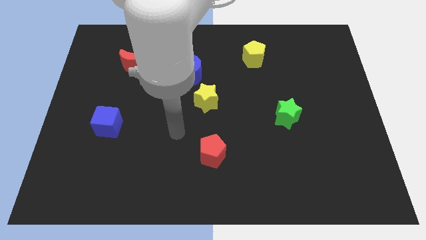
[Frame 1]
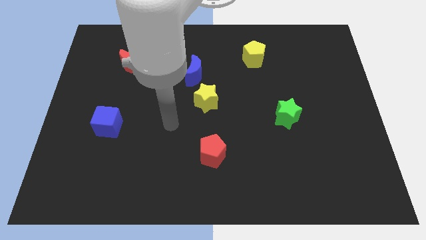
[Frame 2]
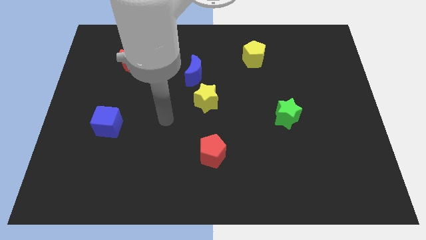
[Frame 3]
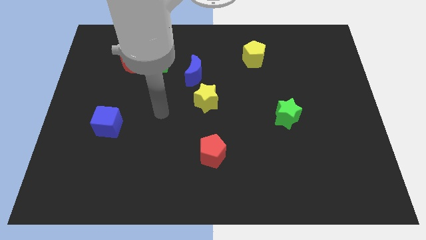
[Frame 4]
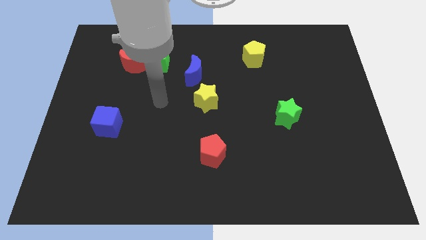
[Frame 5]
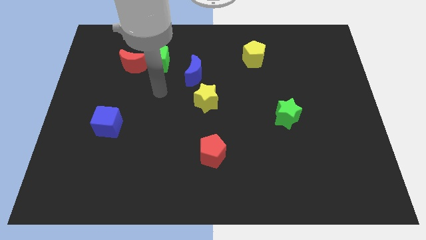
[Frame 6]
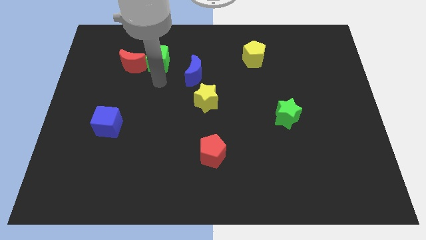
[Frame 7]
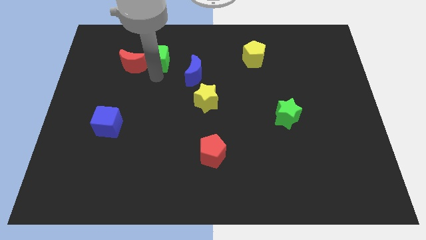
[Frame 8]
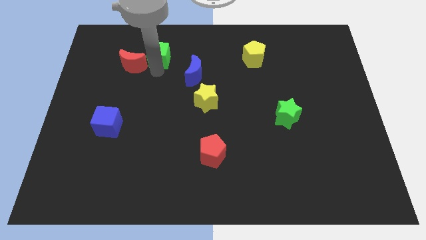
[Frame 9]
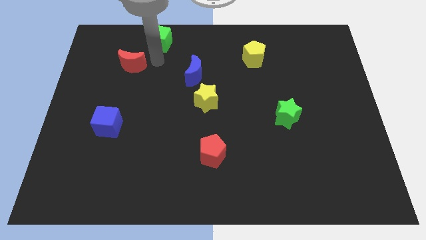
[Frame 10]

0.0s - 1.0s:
separate the red moon from the green cube

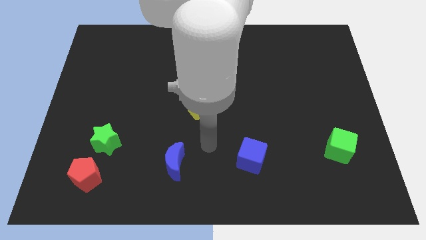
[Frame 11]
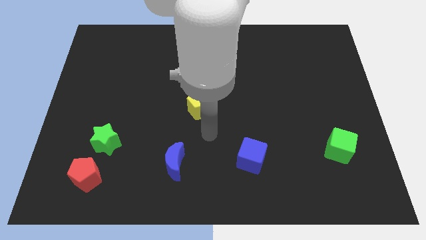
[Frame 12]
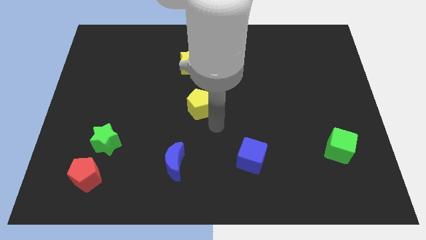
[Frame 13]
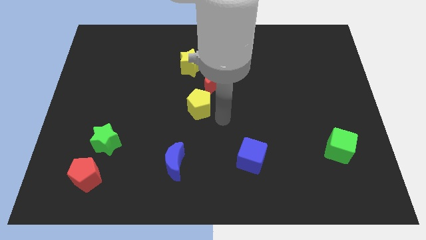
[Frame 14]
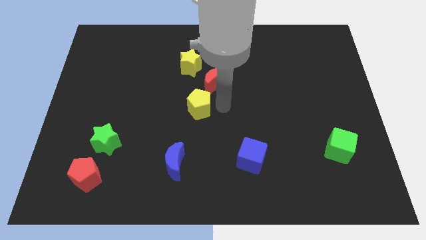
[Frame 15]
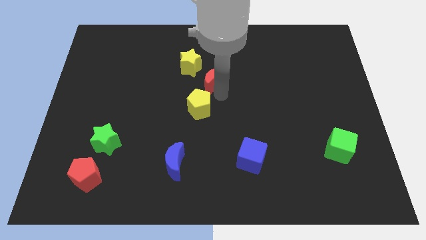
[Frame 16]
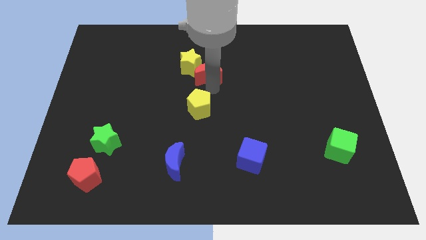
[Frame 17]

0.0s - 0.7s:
separate the yellow pentagon from the red moon

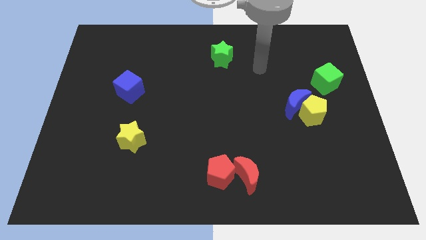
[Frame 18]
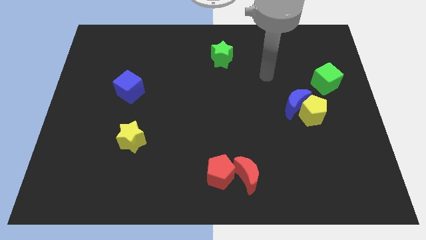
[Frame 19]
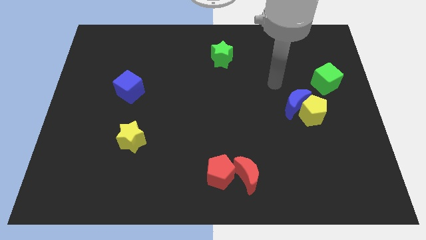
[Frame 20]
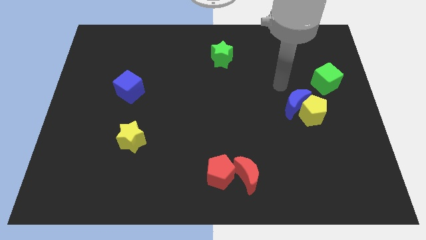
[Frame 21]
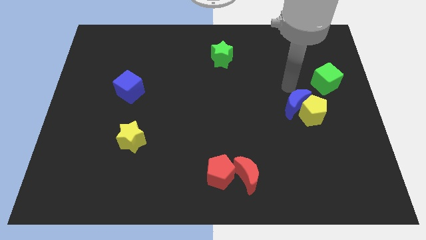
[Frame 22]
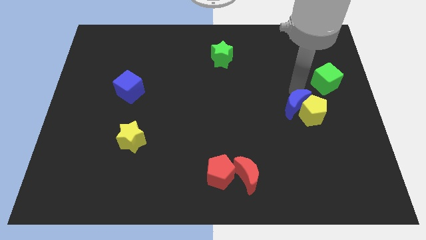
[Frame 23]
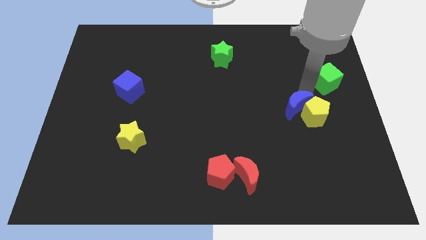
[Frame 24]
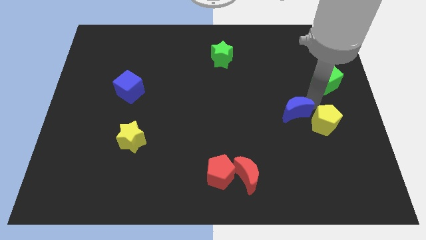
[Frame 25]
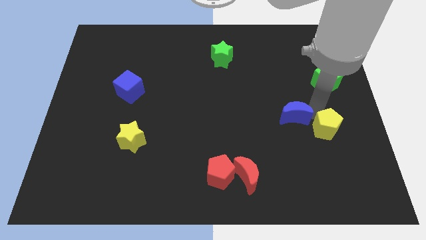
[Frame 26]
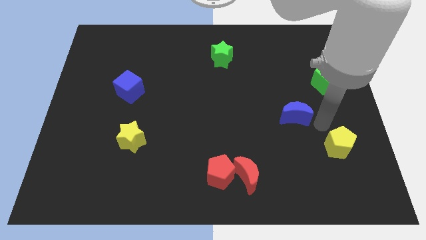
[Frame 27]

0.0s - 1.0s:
move the blue moon away from the yellow pentagon

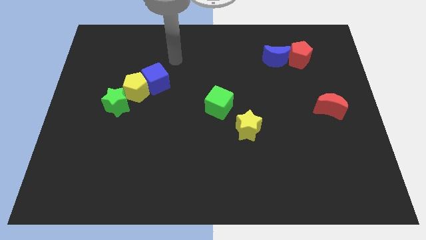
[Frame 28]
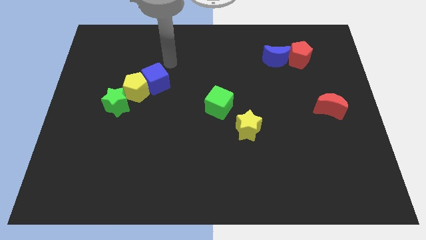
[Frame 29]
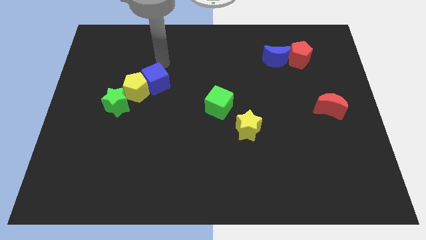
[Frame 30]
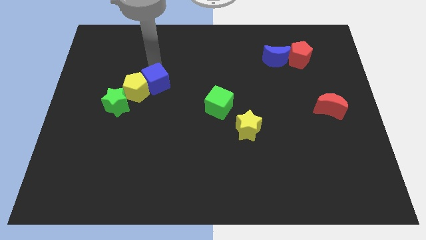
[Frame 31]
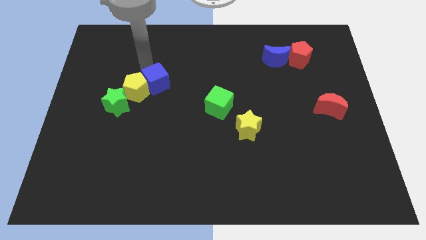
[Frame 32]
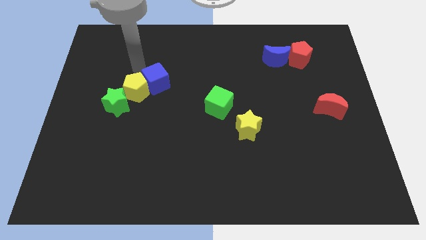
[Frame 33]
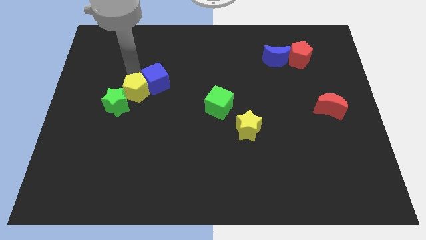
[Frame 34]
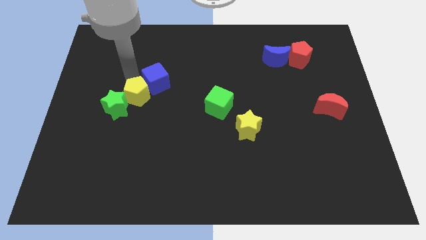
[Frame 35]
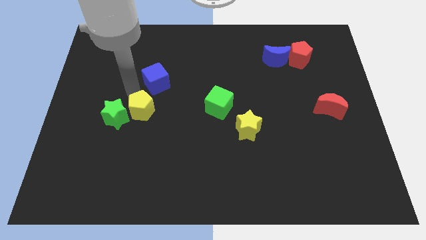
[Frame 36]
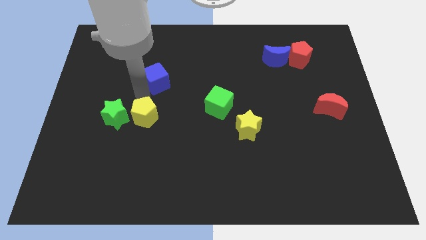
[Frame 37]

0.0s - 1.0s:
separate the blue cube from the yellow pentagon

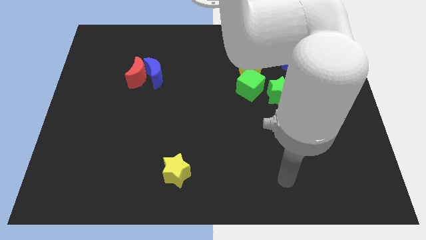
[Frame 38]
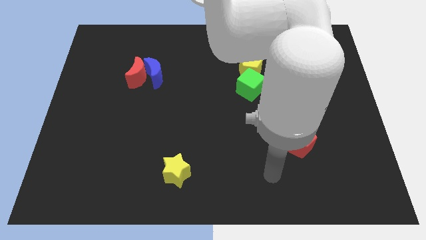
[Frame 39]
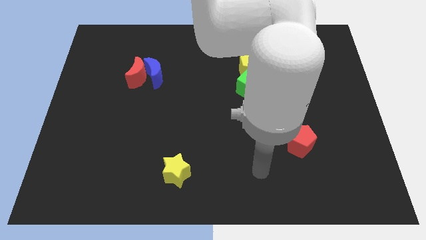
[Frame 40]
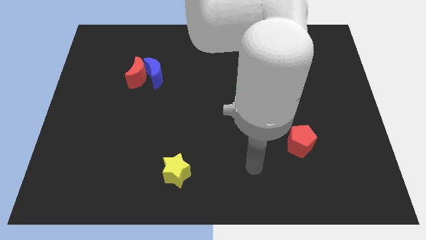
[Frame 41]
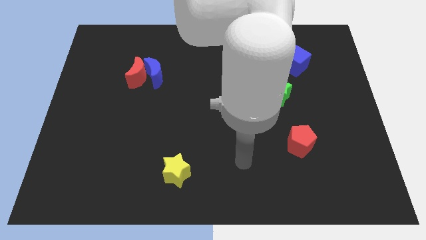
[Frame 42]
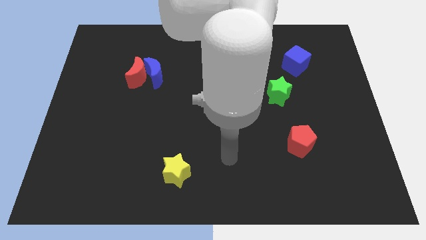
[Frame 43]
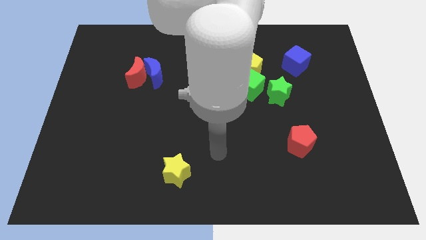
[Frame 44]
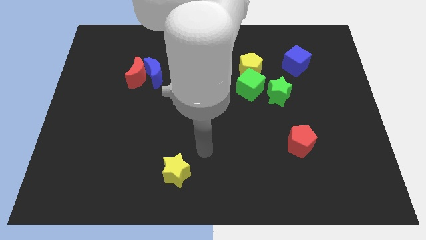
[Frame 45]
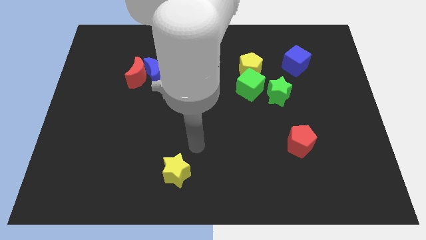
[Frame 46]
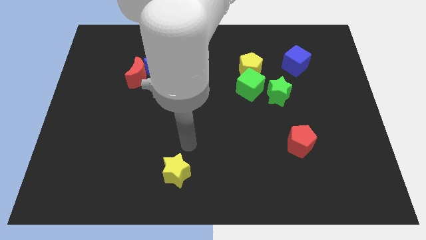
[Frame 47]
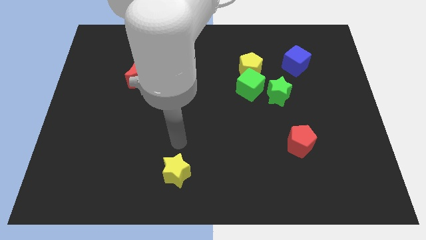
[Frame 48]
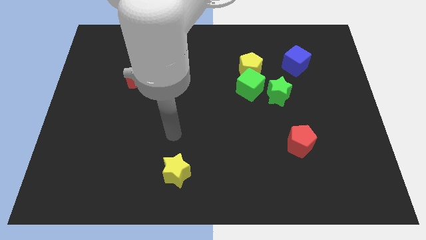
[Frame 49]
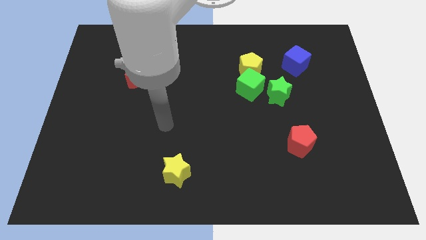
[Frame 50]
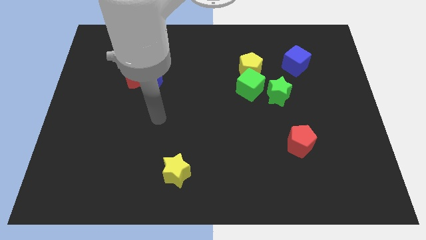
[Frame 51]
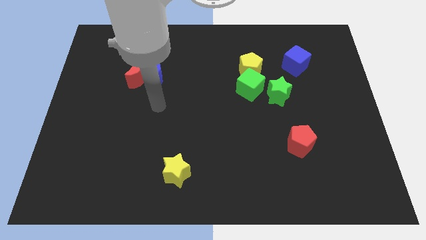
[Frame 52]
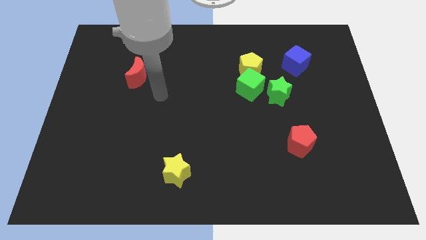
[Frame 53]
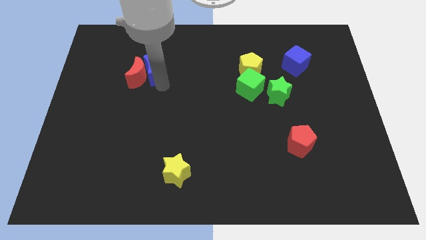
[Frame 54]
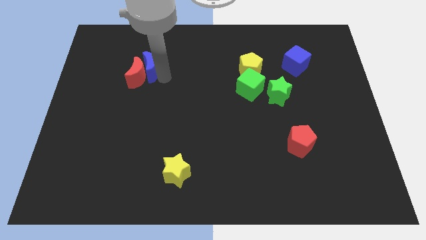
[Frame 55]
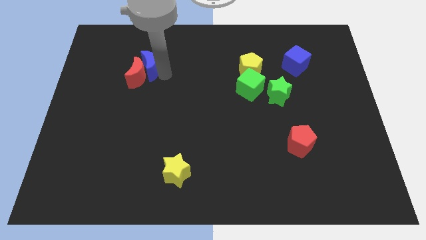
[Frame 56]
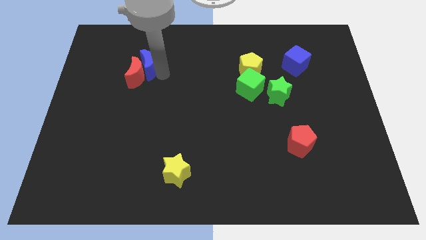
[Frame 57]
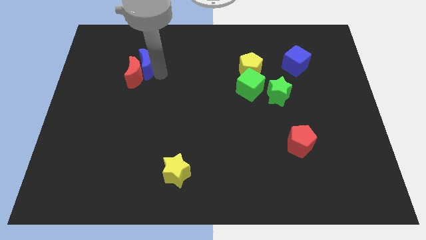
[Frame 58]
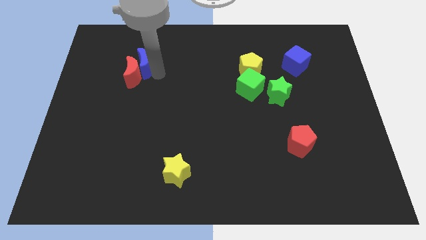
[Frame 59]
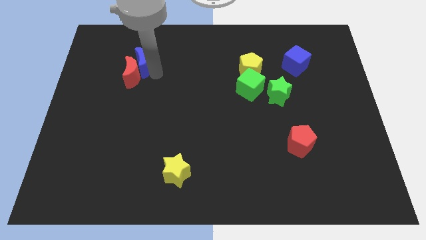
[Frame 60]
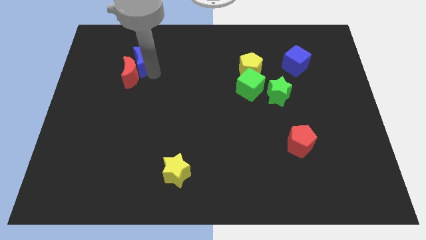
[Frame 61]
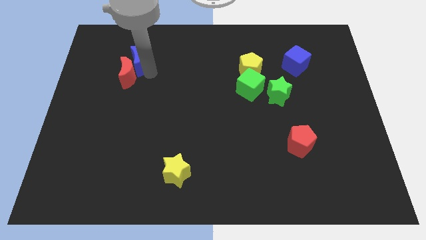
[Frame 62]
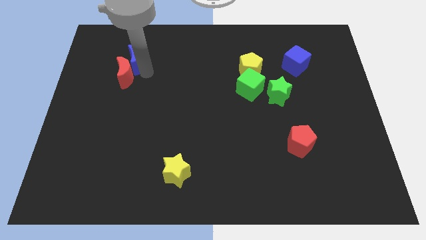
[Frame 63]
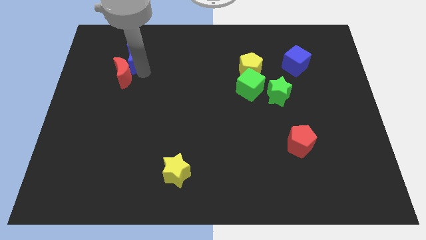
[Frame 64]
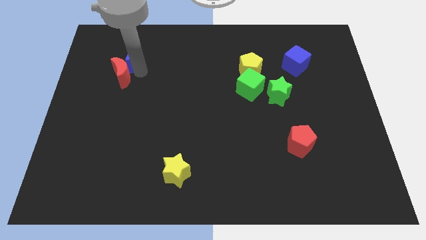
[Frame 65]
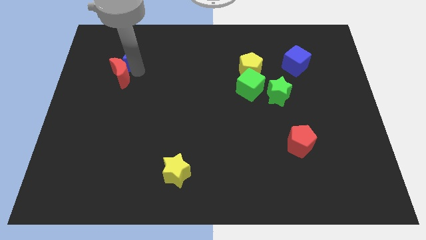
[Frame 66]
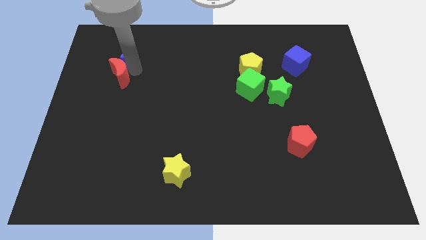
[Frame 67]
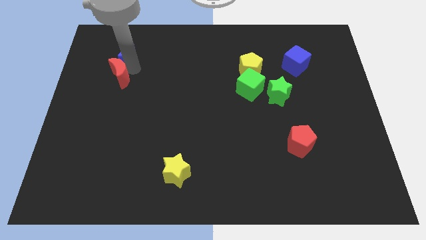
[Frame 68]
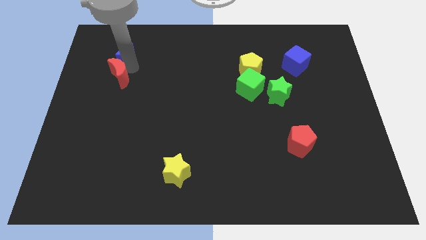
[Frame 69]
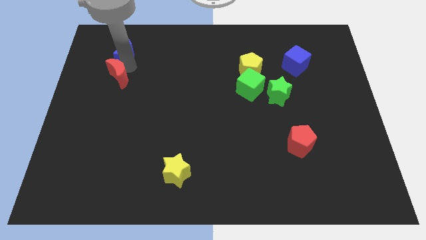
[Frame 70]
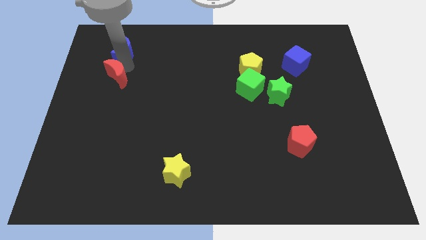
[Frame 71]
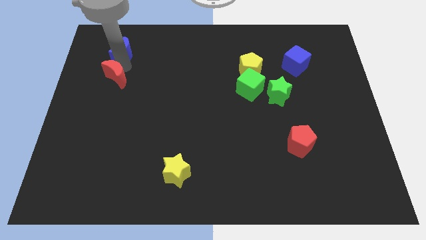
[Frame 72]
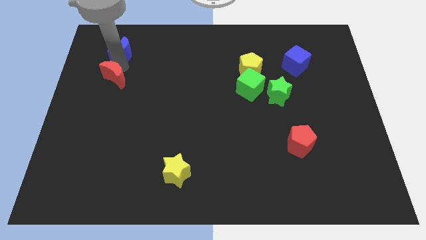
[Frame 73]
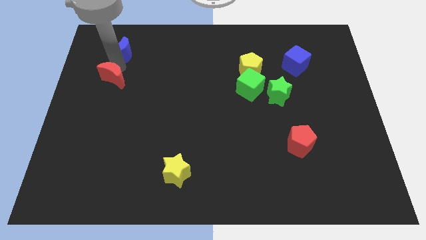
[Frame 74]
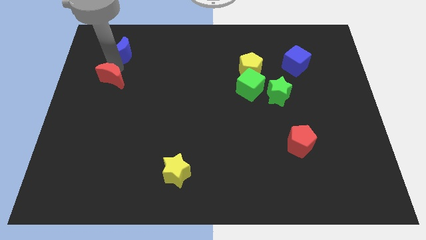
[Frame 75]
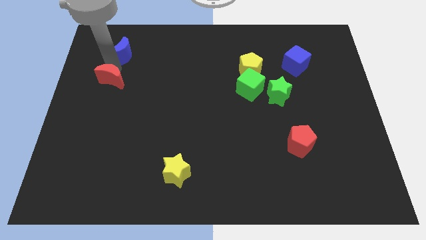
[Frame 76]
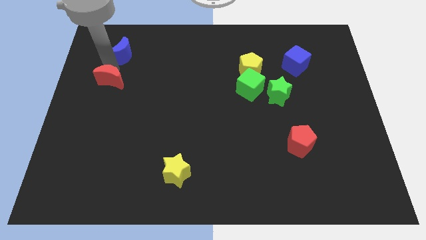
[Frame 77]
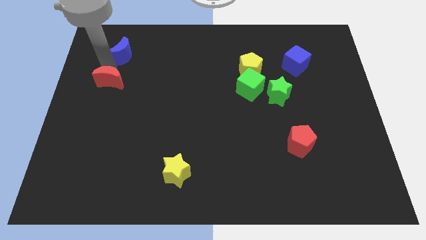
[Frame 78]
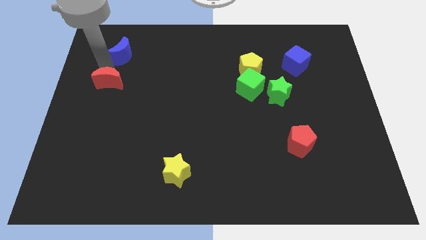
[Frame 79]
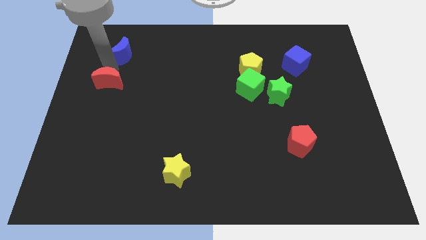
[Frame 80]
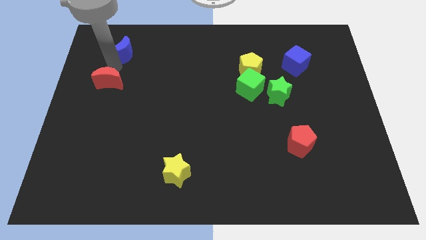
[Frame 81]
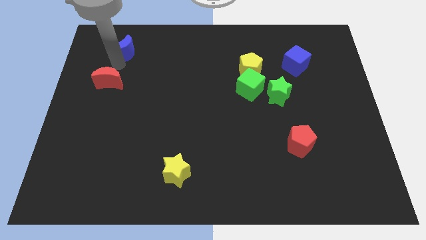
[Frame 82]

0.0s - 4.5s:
pull the red moon apart from the blue moon

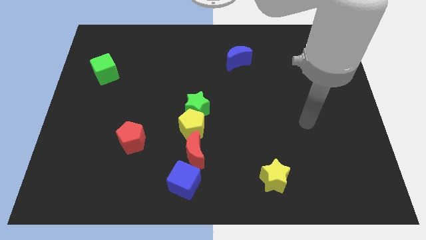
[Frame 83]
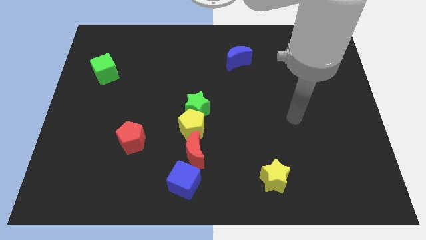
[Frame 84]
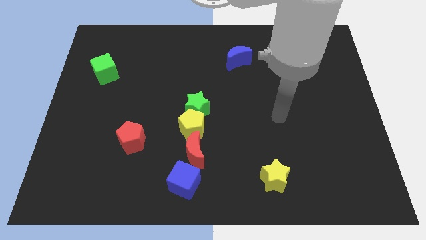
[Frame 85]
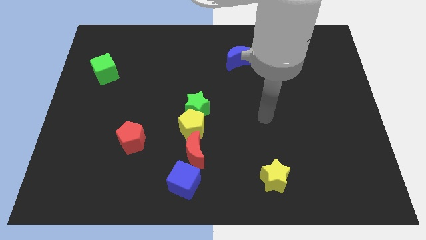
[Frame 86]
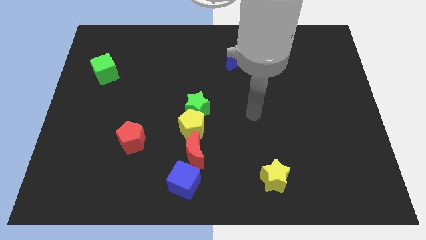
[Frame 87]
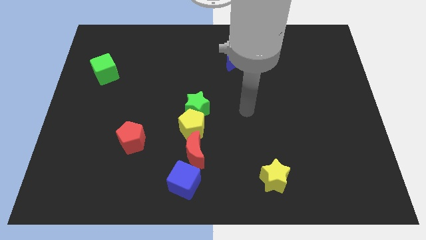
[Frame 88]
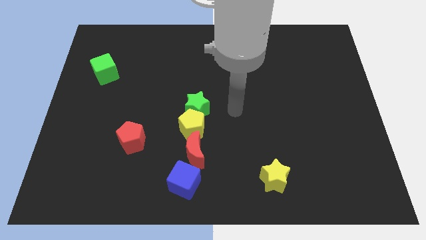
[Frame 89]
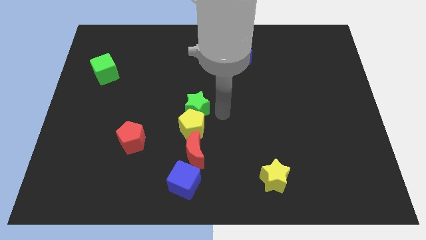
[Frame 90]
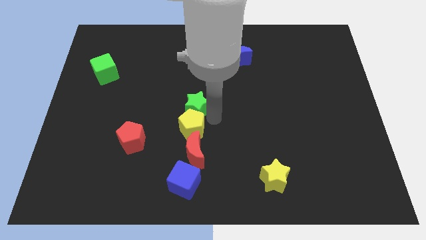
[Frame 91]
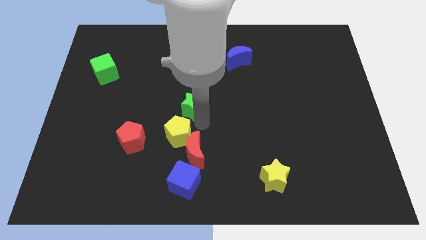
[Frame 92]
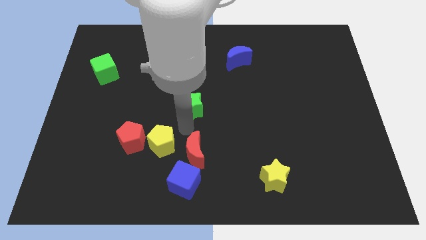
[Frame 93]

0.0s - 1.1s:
separate the green star from the yellow pentagon

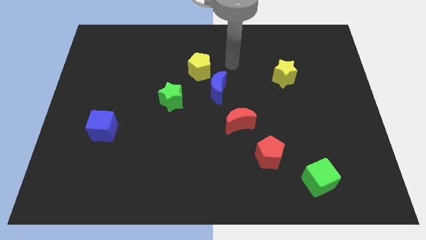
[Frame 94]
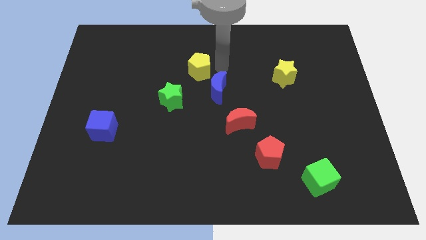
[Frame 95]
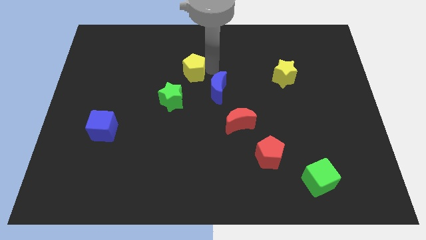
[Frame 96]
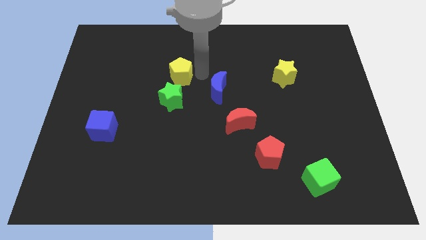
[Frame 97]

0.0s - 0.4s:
separate the blue moon from the yellow pentagon
